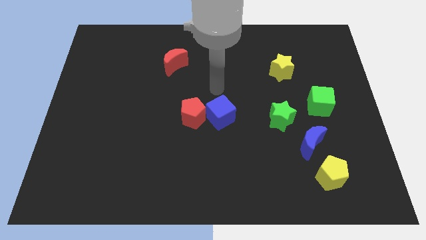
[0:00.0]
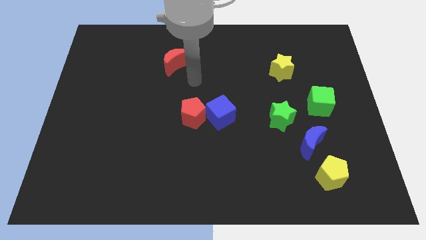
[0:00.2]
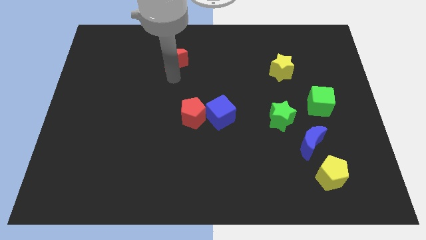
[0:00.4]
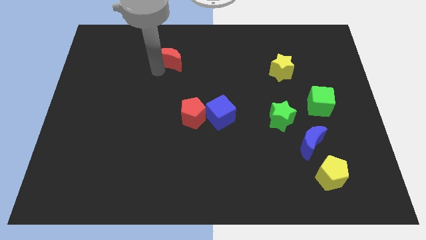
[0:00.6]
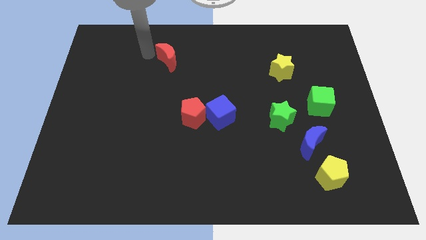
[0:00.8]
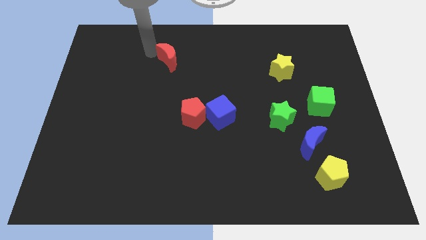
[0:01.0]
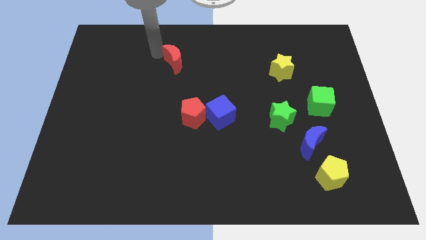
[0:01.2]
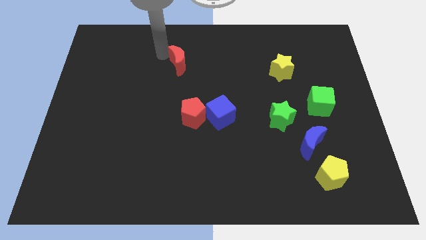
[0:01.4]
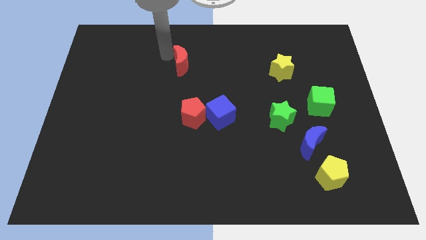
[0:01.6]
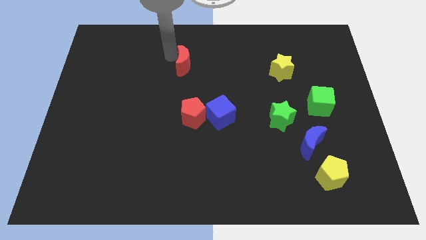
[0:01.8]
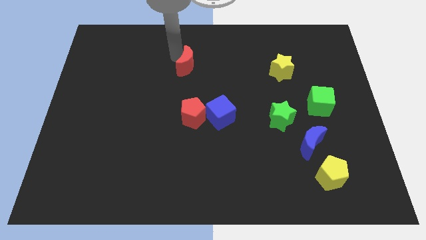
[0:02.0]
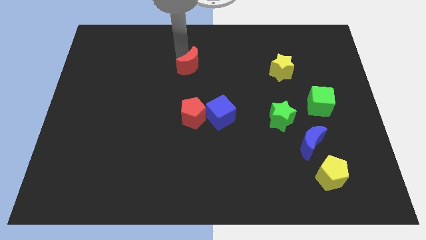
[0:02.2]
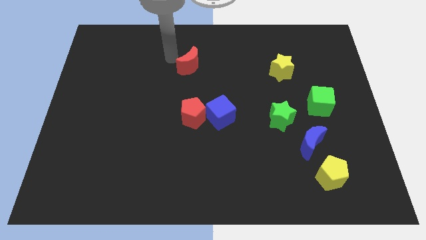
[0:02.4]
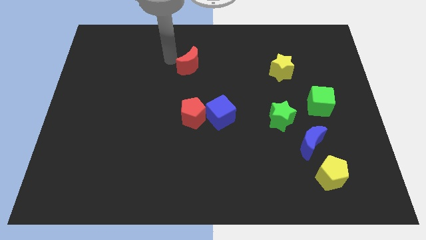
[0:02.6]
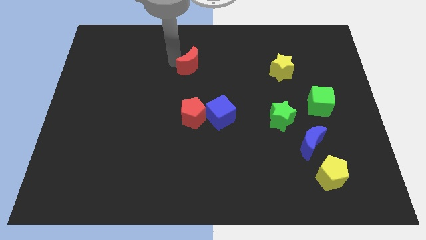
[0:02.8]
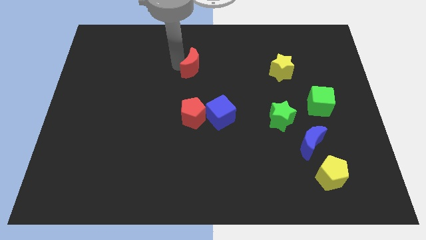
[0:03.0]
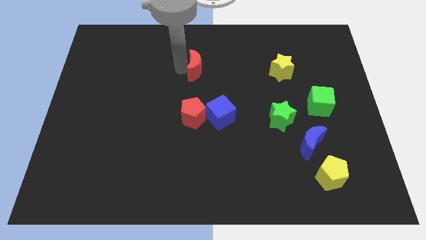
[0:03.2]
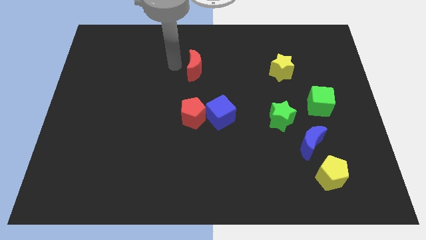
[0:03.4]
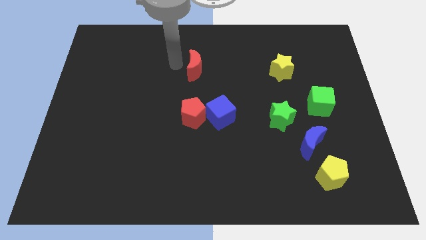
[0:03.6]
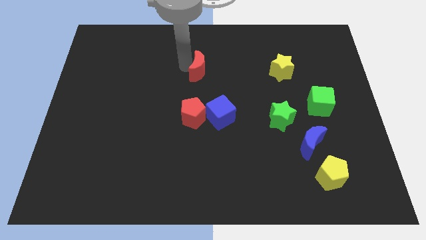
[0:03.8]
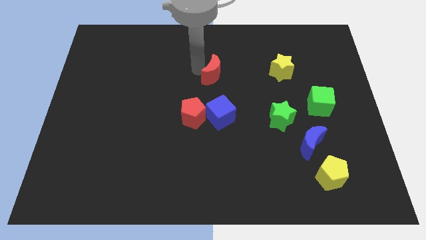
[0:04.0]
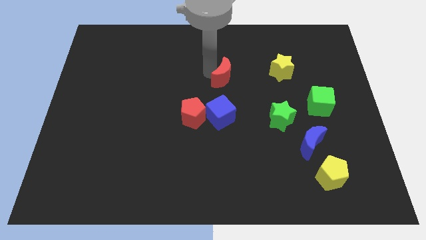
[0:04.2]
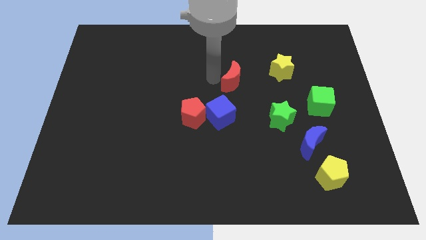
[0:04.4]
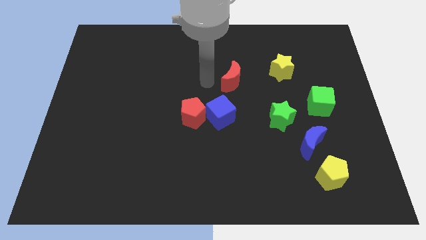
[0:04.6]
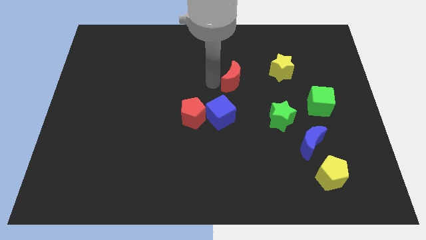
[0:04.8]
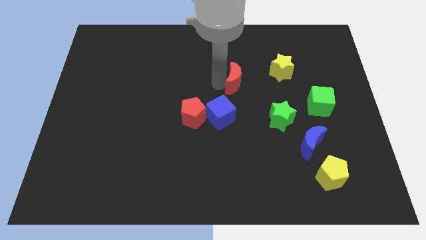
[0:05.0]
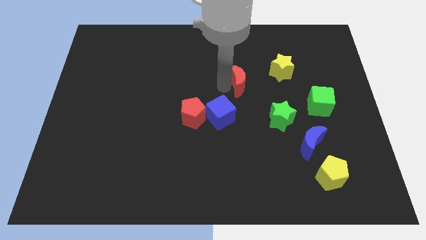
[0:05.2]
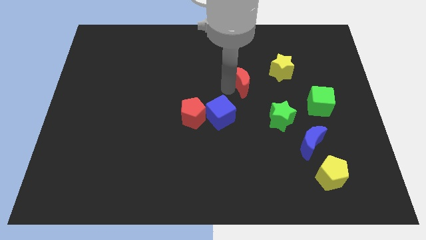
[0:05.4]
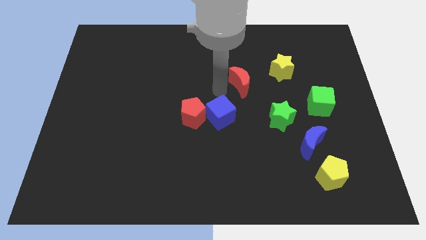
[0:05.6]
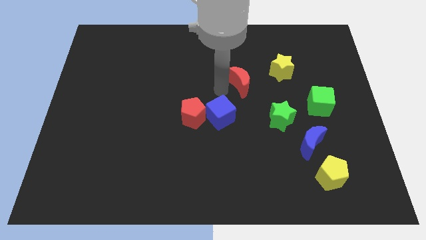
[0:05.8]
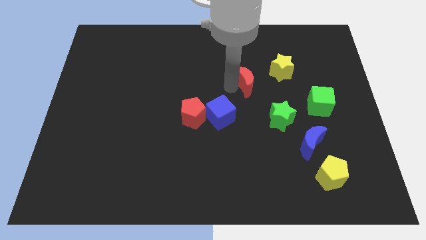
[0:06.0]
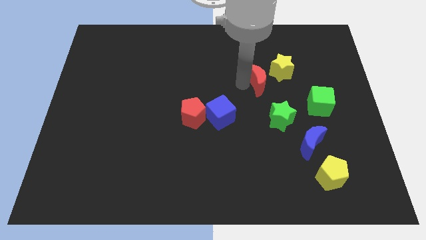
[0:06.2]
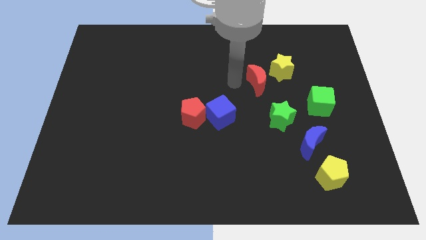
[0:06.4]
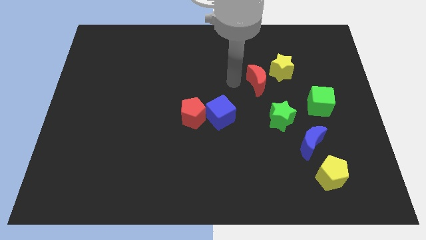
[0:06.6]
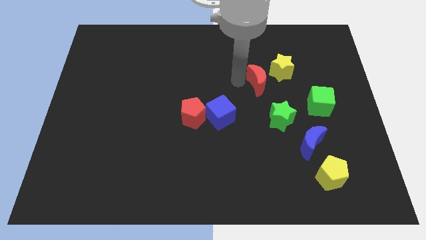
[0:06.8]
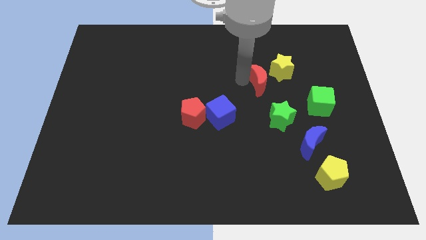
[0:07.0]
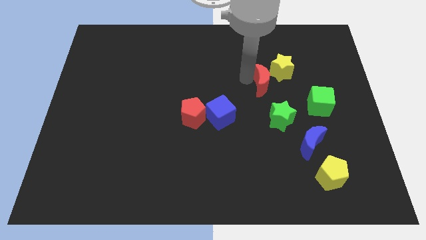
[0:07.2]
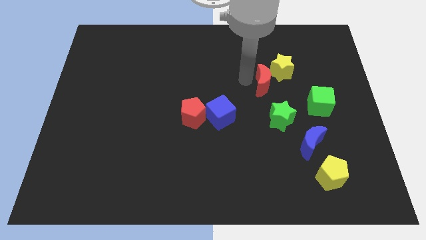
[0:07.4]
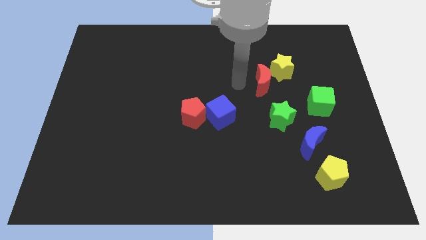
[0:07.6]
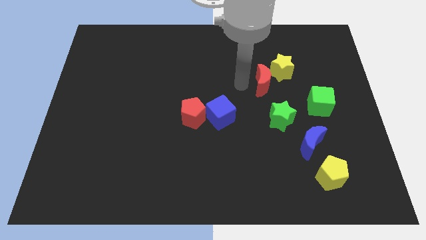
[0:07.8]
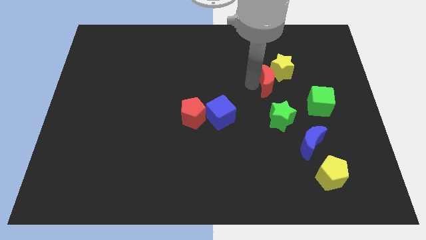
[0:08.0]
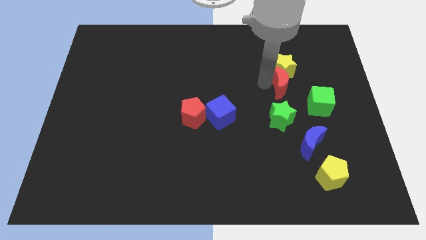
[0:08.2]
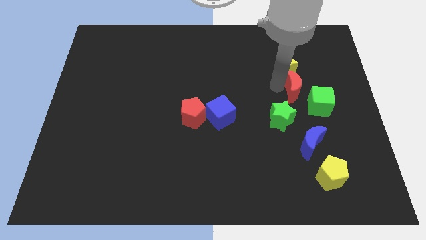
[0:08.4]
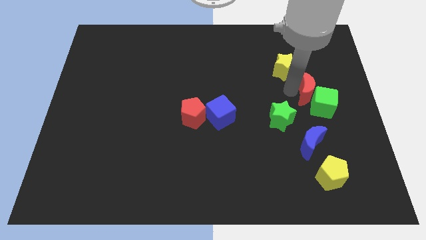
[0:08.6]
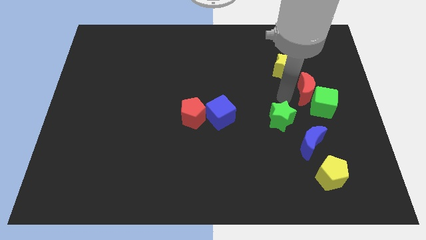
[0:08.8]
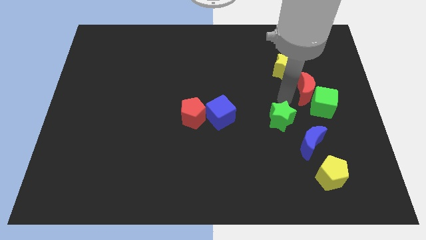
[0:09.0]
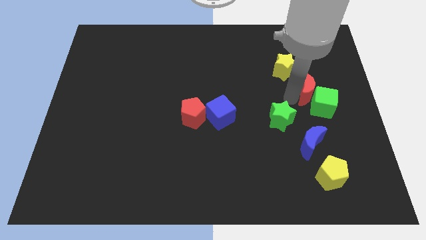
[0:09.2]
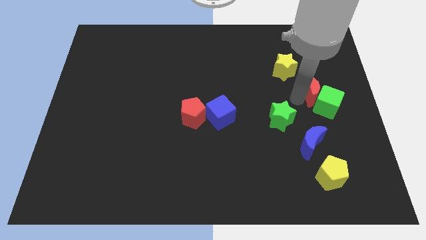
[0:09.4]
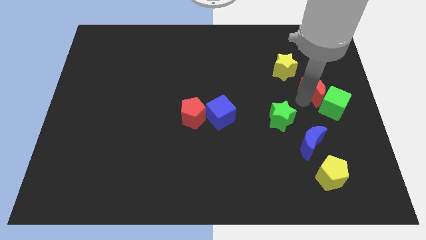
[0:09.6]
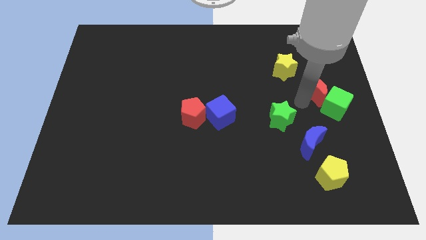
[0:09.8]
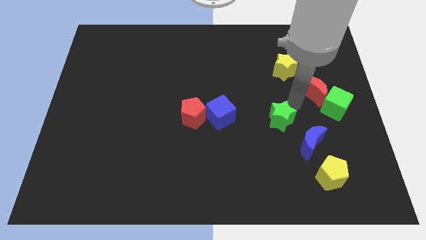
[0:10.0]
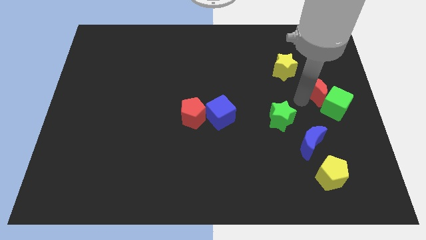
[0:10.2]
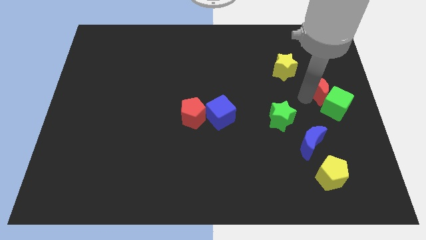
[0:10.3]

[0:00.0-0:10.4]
push the red moon to the right side of the board

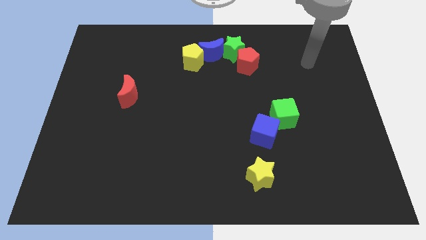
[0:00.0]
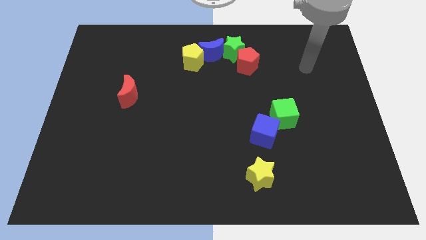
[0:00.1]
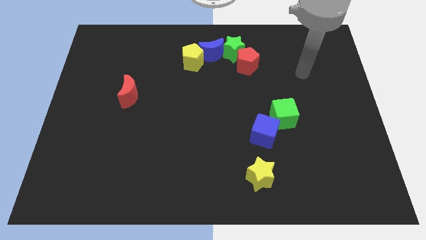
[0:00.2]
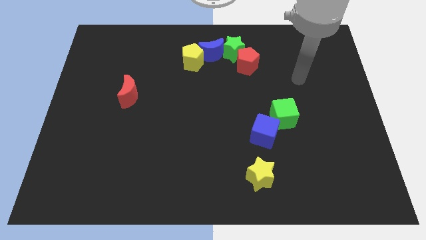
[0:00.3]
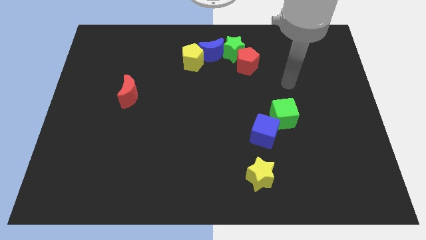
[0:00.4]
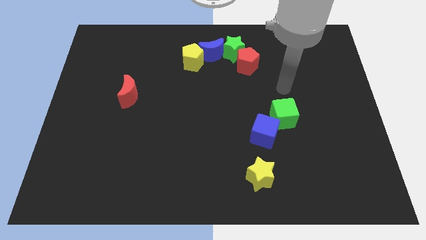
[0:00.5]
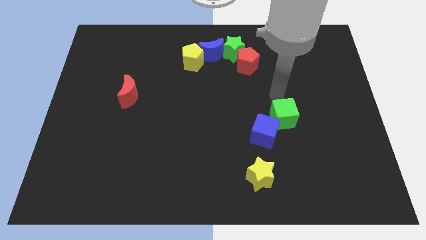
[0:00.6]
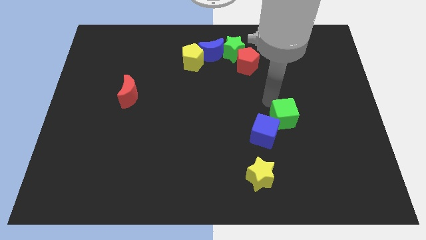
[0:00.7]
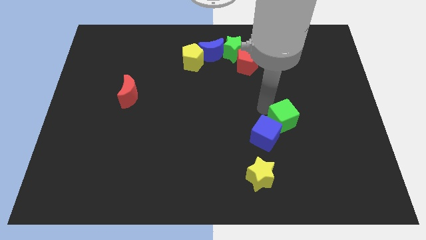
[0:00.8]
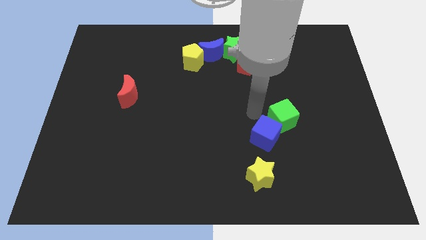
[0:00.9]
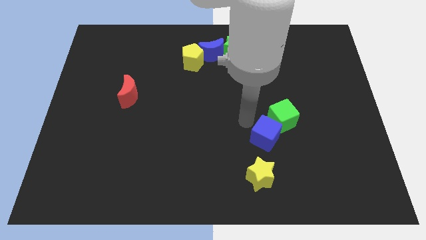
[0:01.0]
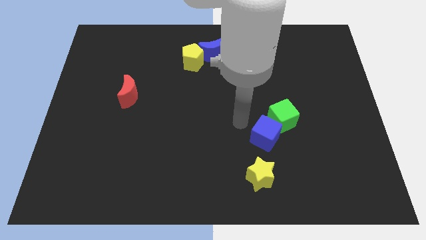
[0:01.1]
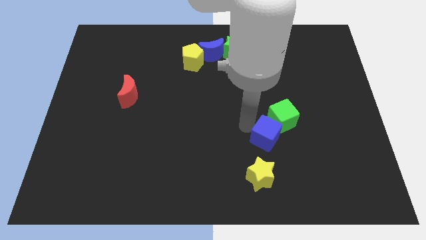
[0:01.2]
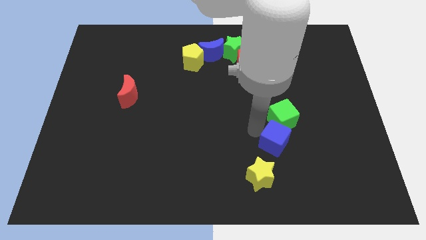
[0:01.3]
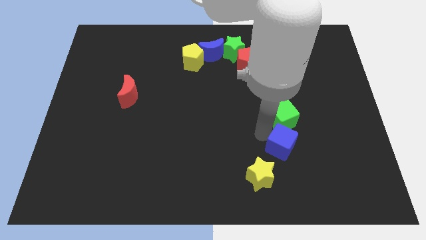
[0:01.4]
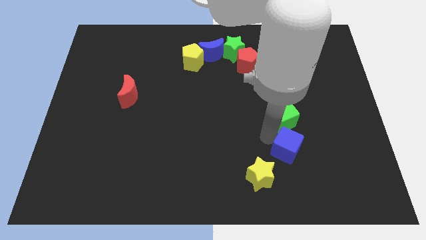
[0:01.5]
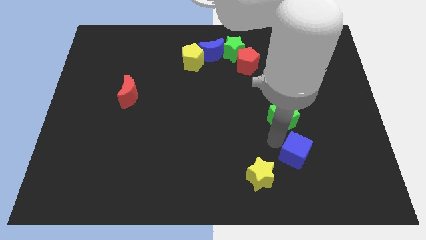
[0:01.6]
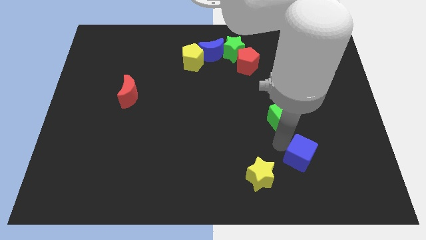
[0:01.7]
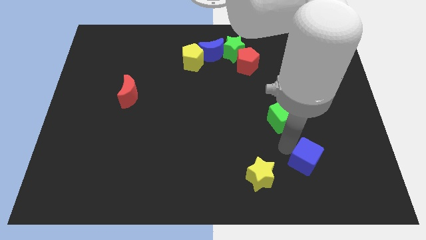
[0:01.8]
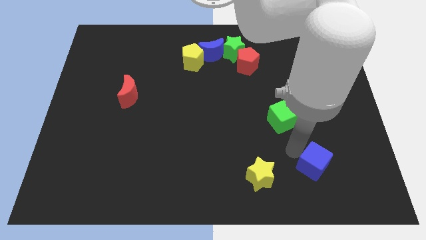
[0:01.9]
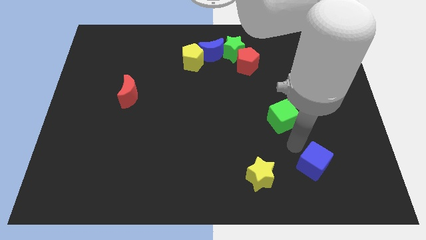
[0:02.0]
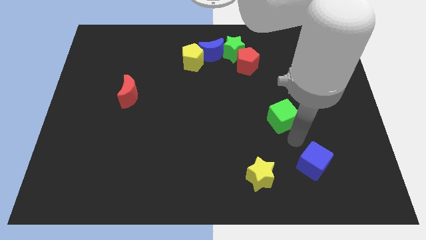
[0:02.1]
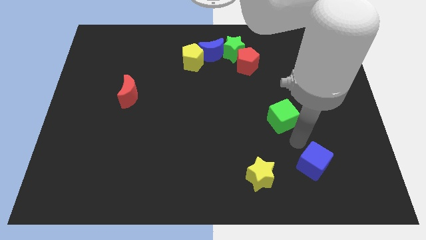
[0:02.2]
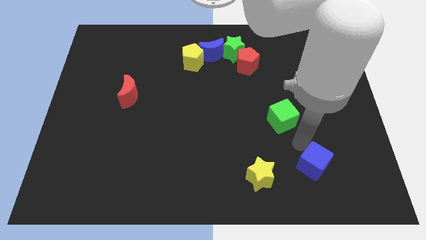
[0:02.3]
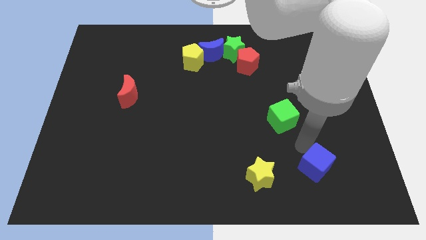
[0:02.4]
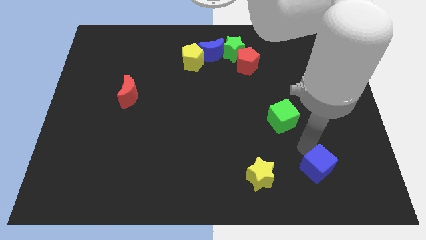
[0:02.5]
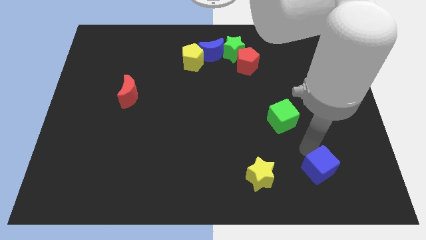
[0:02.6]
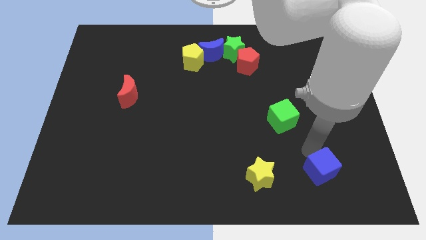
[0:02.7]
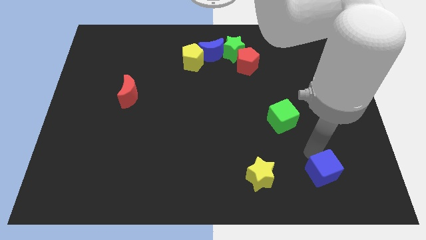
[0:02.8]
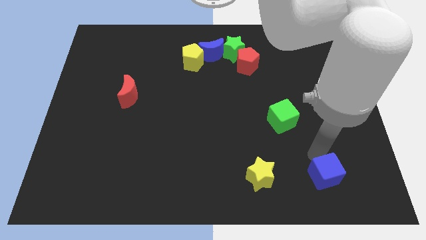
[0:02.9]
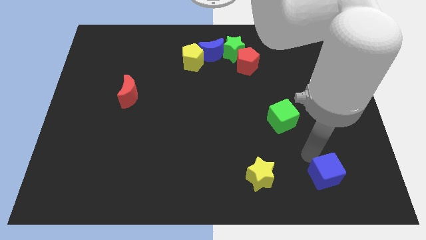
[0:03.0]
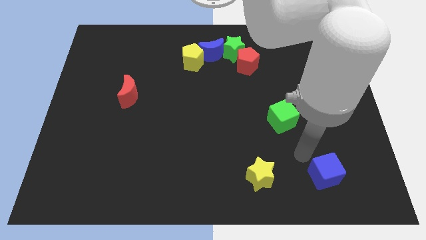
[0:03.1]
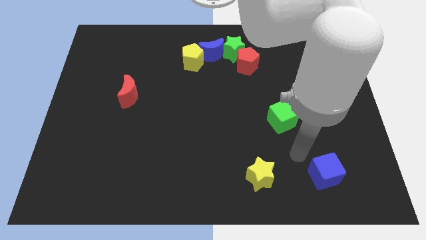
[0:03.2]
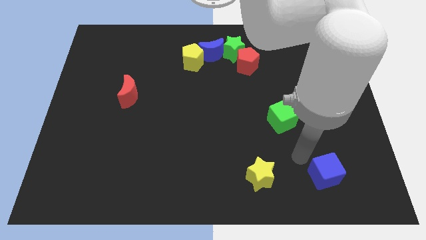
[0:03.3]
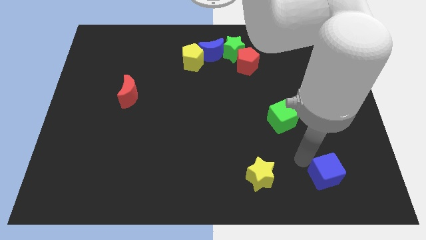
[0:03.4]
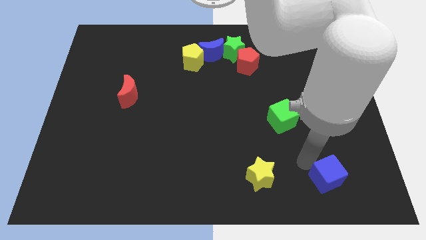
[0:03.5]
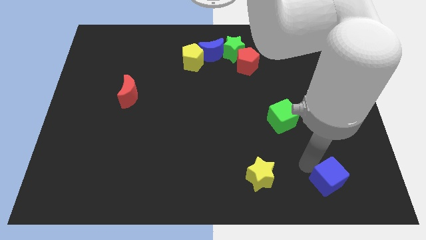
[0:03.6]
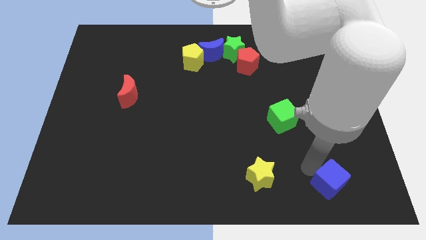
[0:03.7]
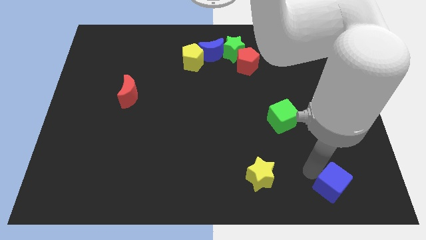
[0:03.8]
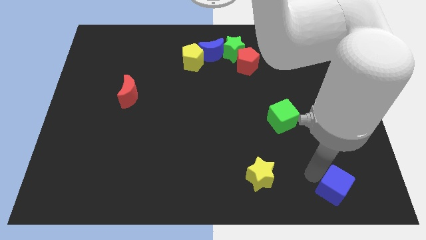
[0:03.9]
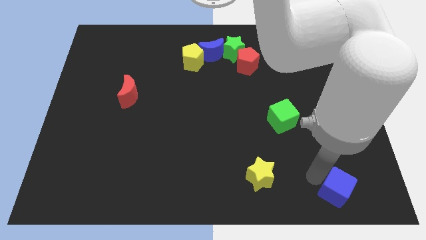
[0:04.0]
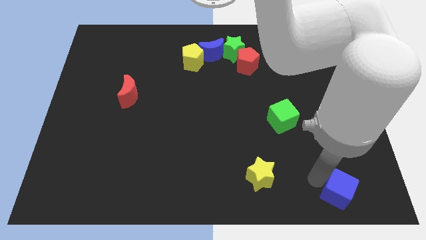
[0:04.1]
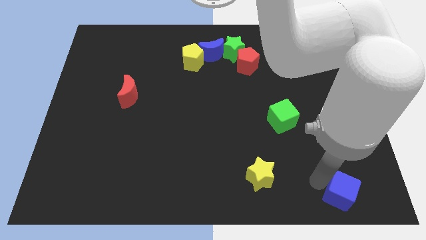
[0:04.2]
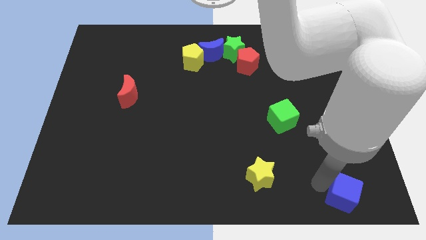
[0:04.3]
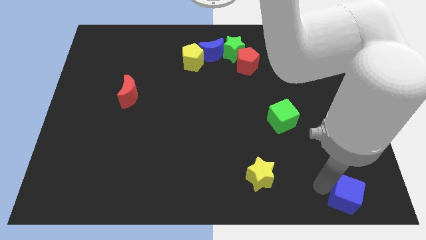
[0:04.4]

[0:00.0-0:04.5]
put the blue cube to the bottom right corner
